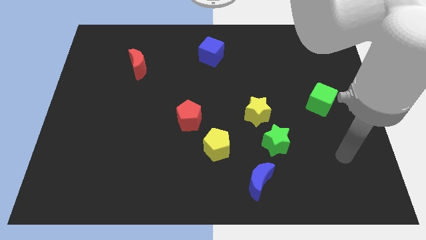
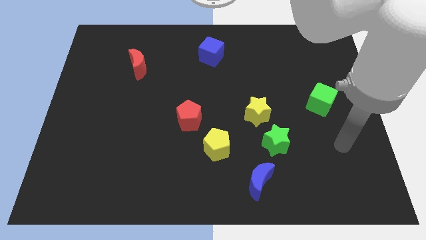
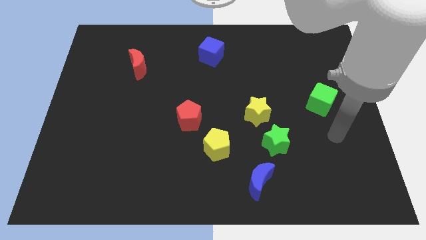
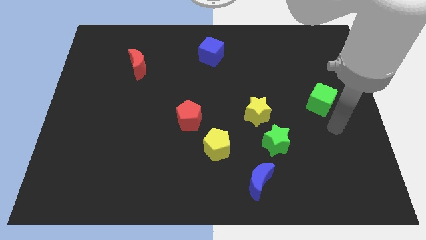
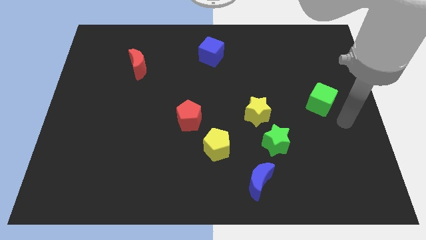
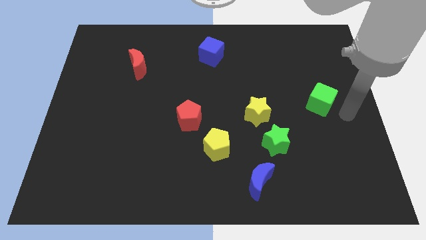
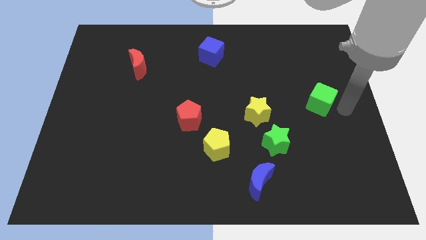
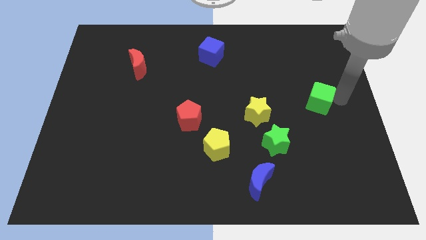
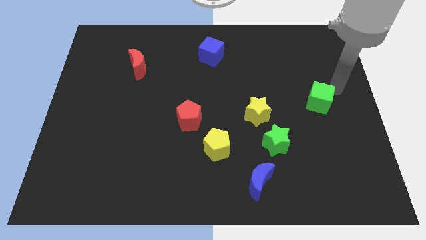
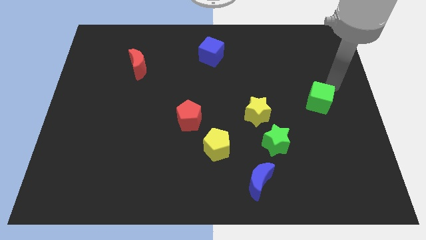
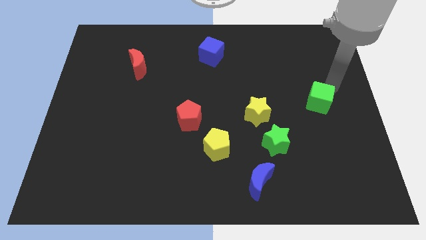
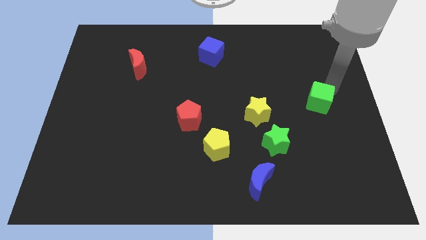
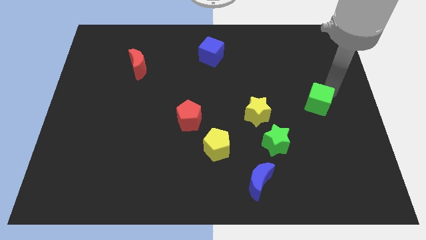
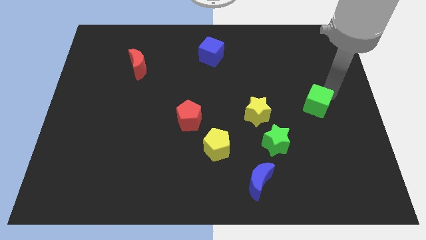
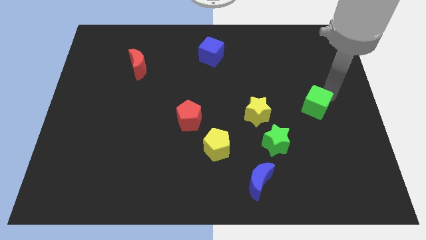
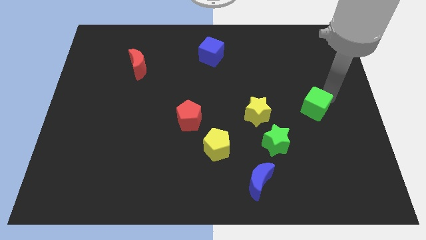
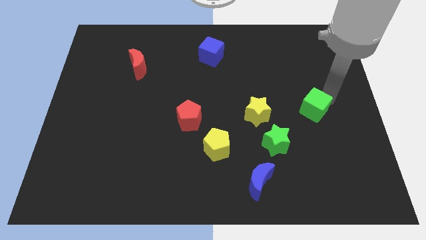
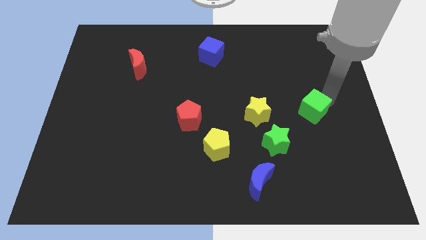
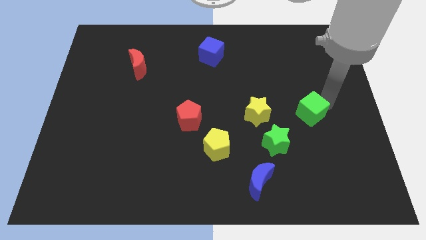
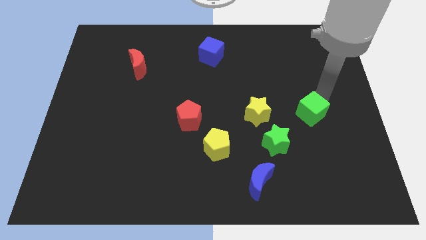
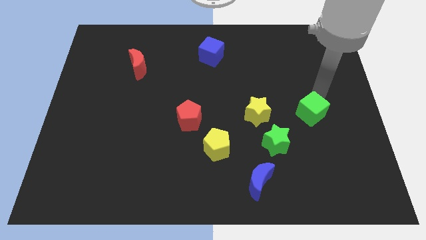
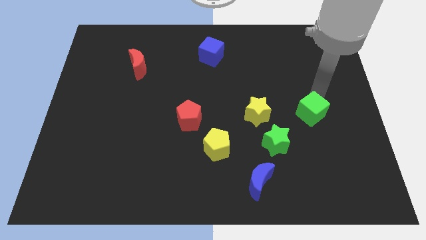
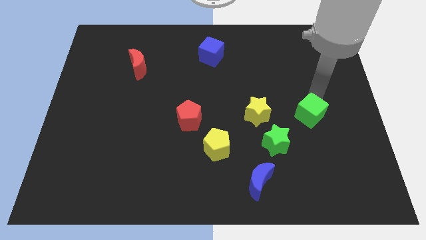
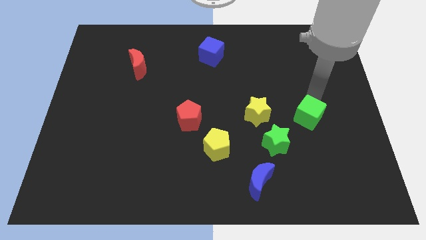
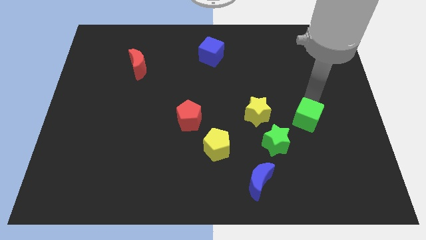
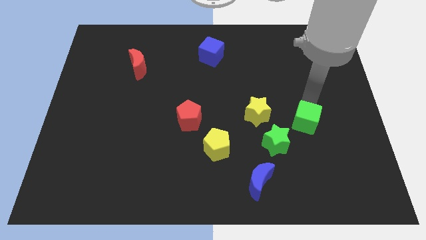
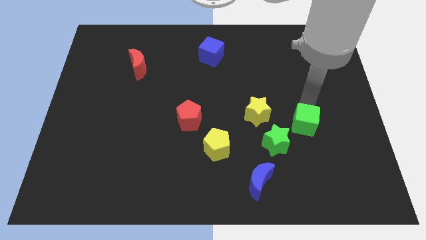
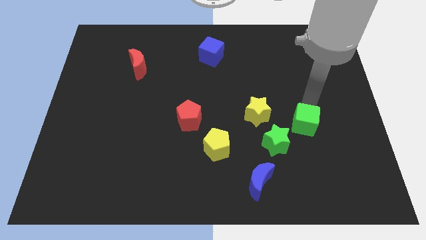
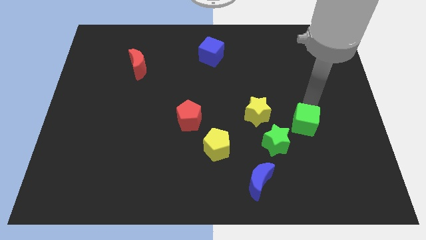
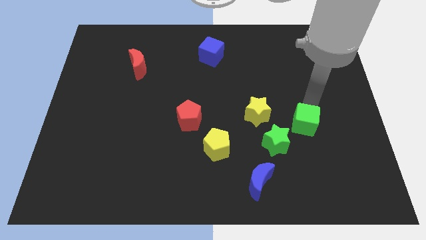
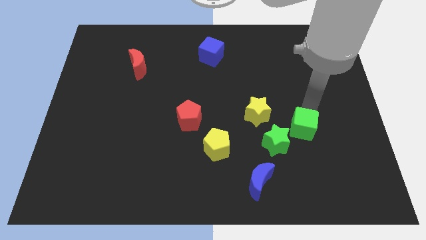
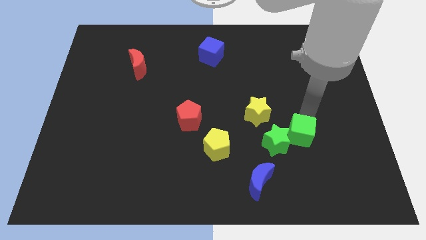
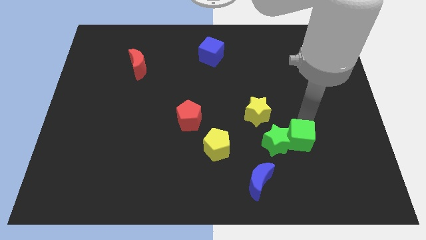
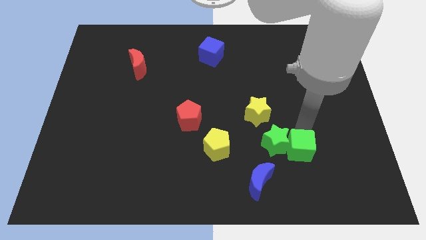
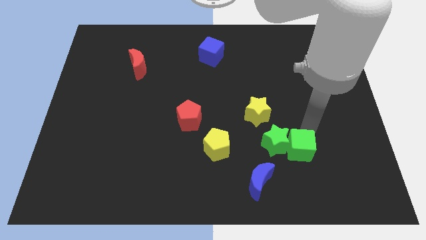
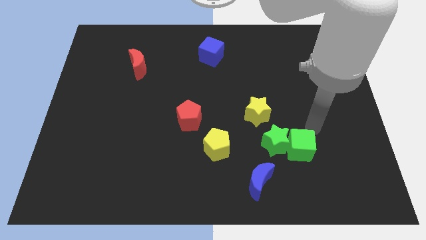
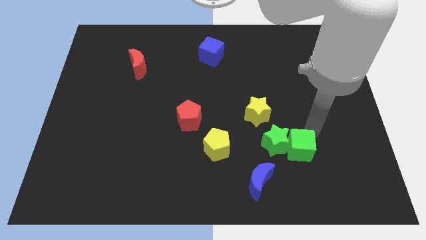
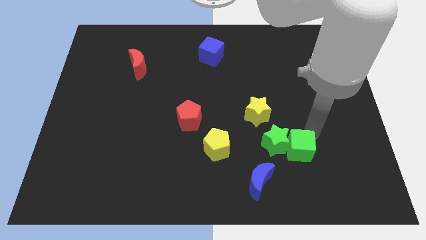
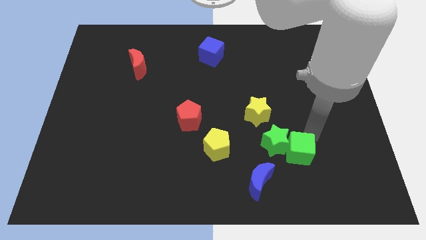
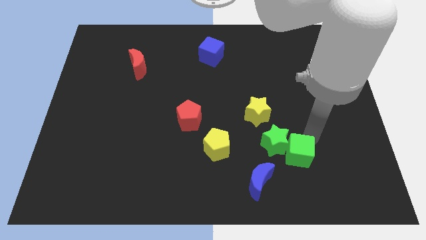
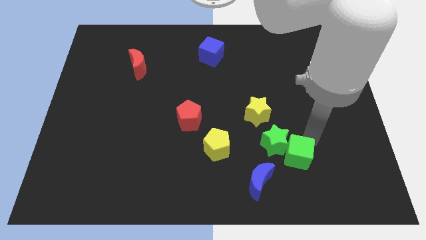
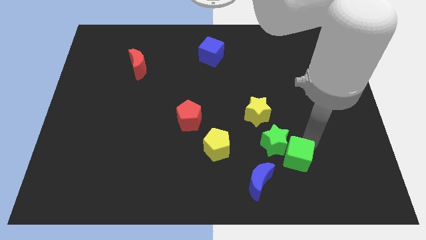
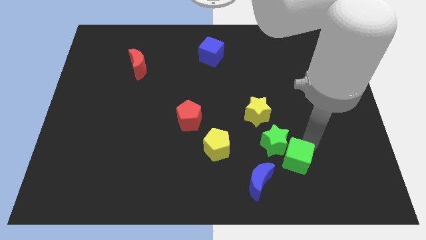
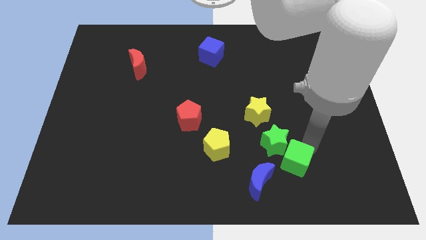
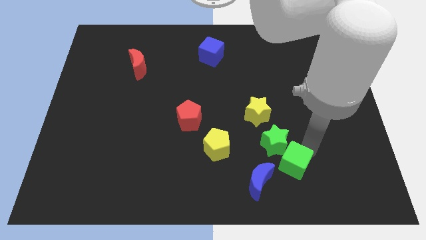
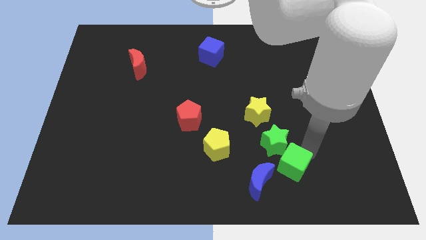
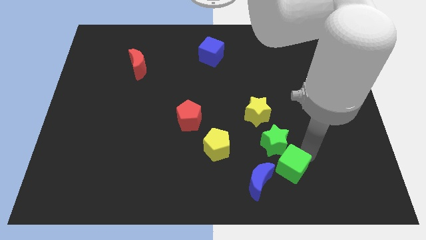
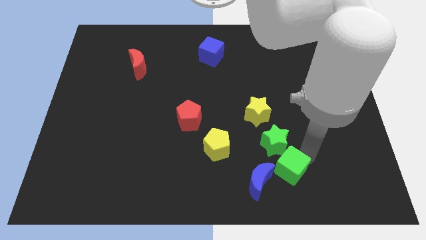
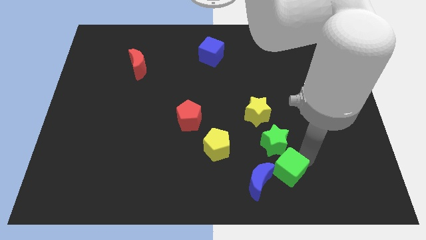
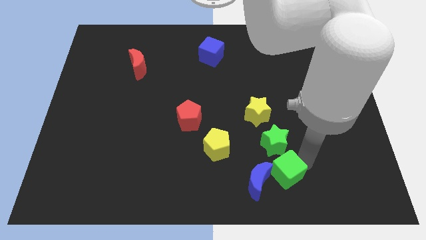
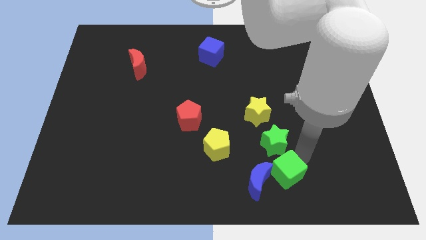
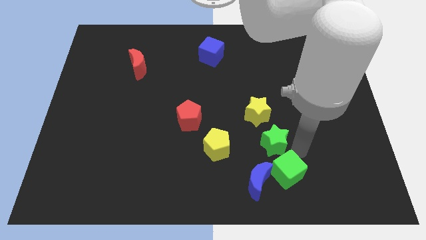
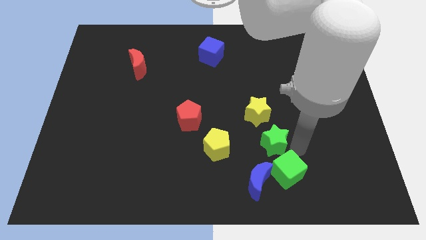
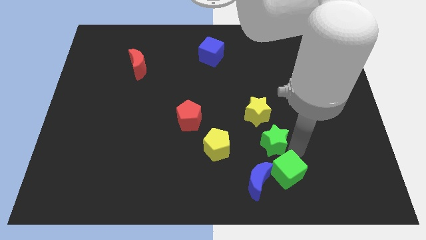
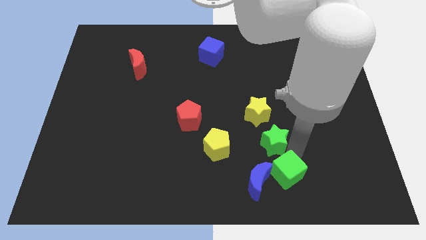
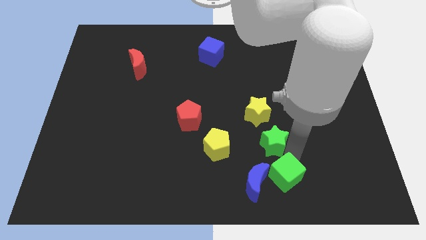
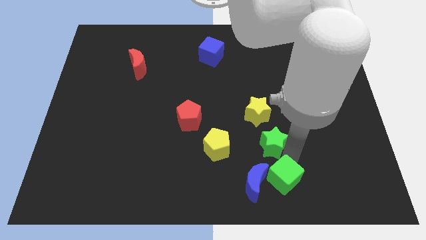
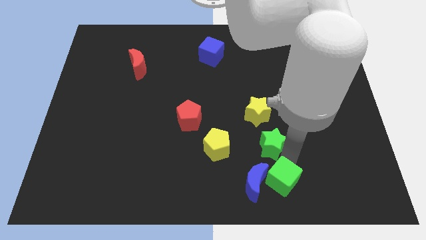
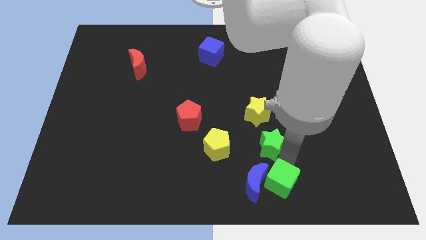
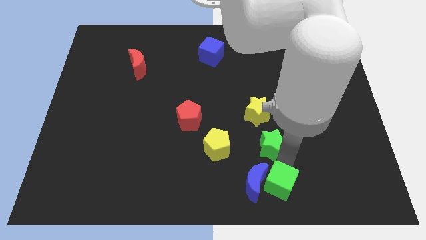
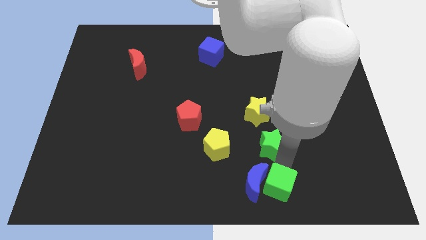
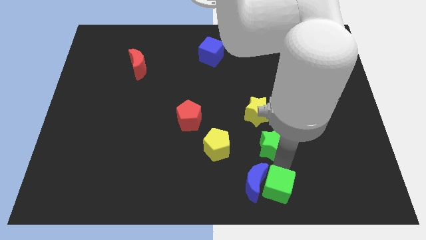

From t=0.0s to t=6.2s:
move the green cube to the bottom
